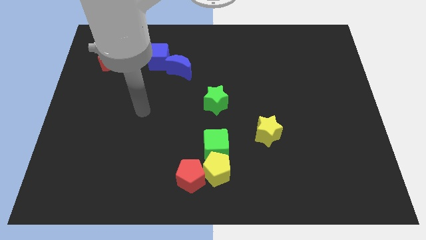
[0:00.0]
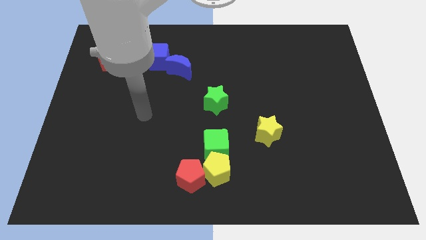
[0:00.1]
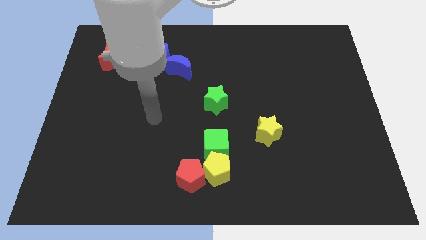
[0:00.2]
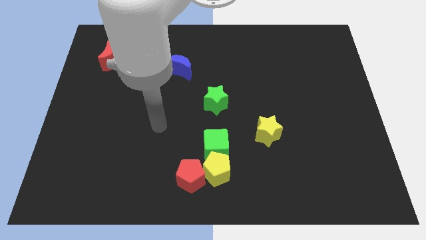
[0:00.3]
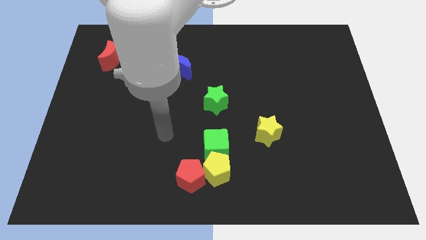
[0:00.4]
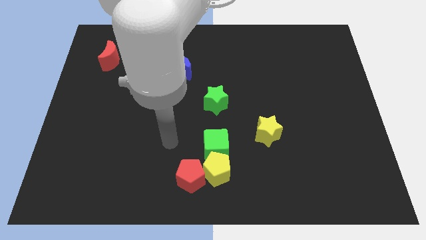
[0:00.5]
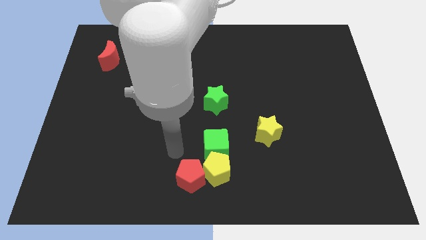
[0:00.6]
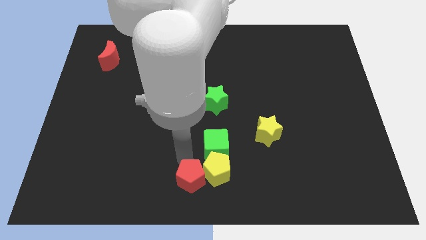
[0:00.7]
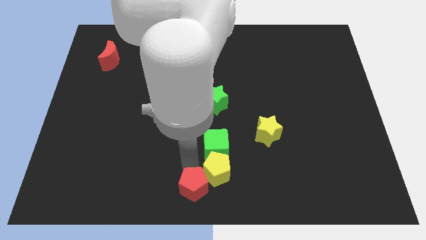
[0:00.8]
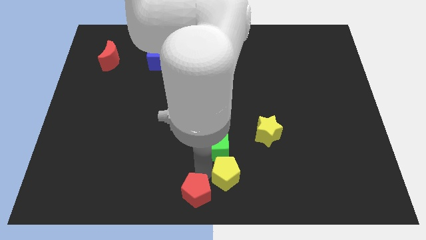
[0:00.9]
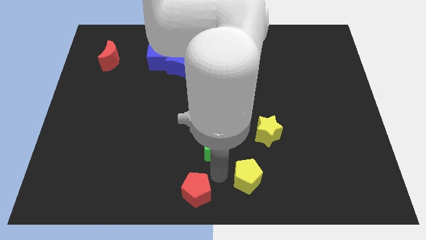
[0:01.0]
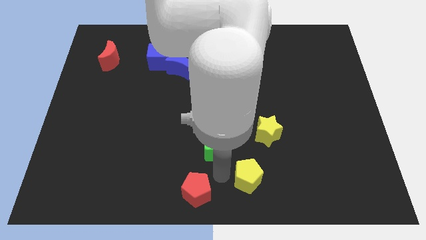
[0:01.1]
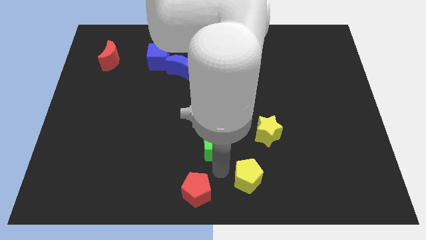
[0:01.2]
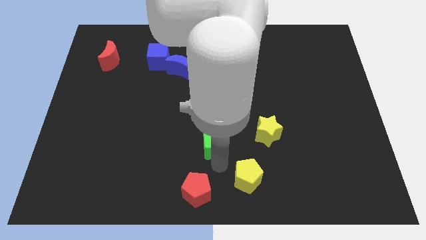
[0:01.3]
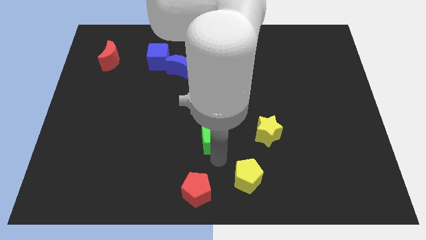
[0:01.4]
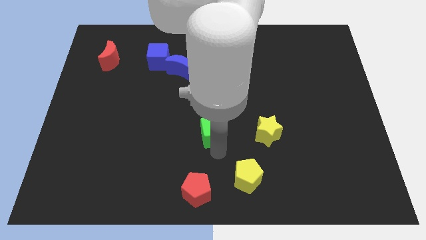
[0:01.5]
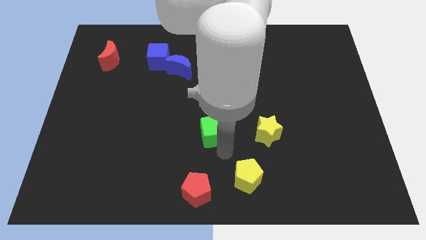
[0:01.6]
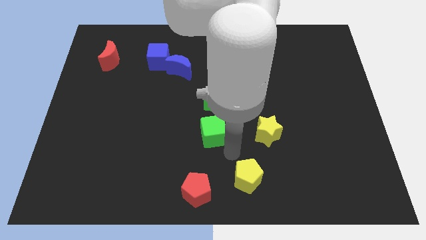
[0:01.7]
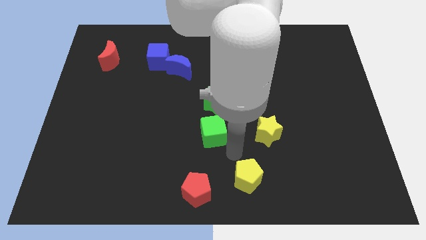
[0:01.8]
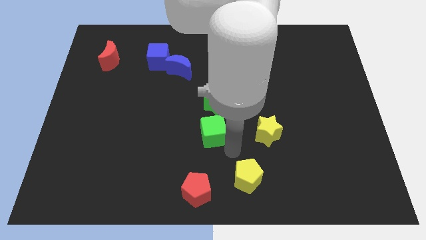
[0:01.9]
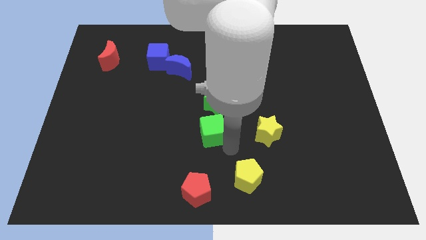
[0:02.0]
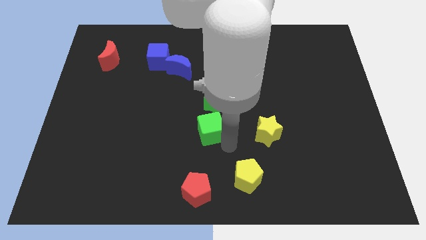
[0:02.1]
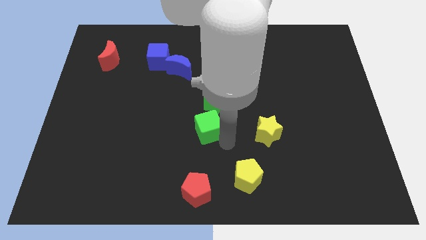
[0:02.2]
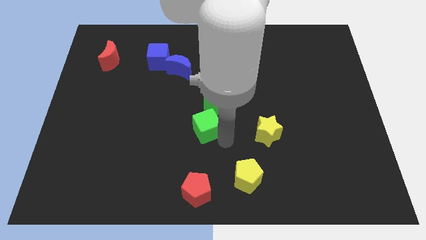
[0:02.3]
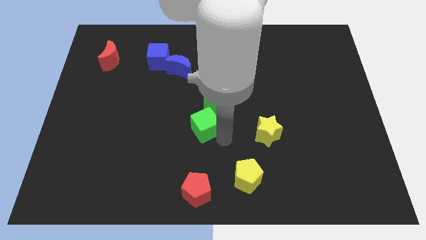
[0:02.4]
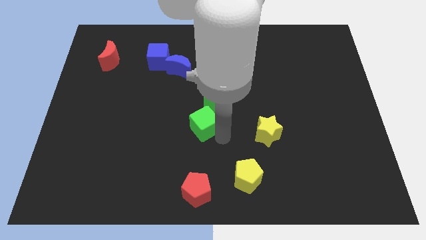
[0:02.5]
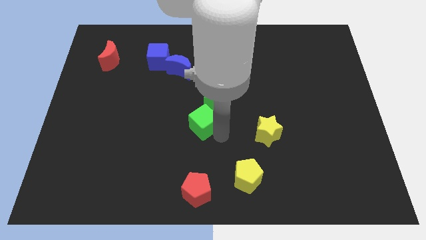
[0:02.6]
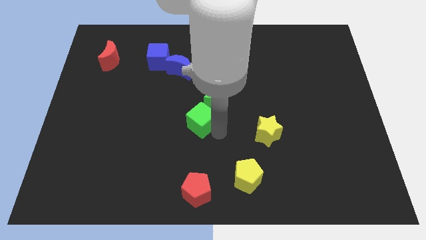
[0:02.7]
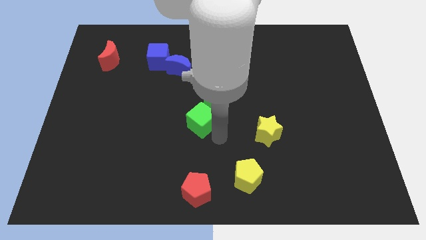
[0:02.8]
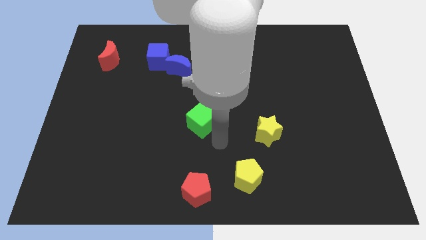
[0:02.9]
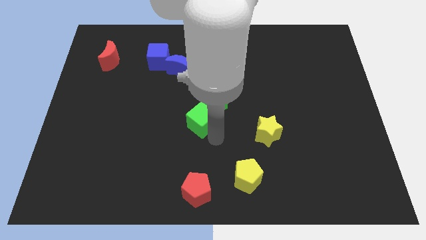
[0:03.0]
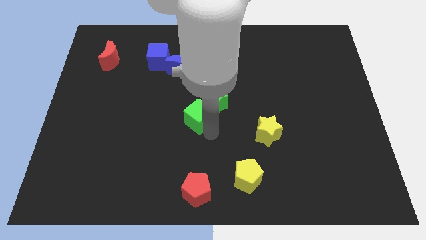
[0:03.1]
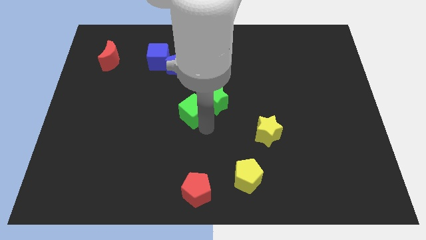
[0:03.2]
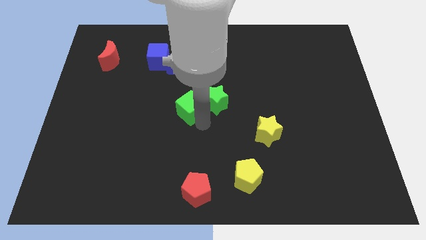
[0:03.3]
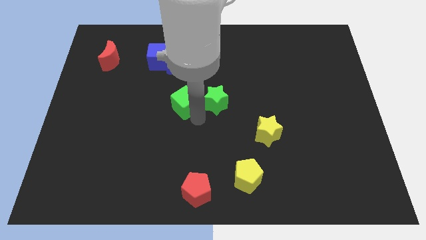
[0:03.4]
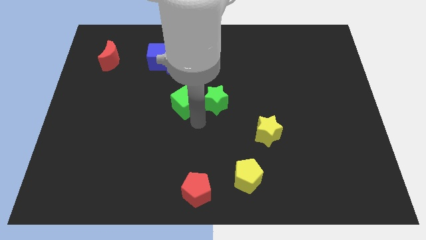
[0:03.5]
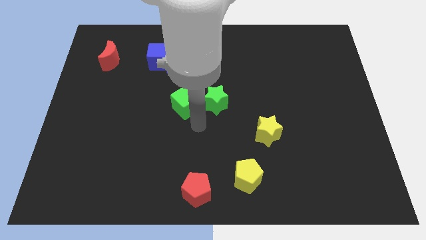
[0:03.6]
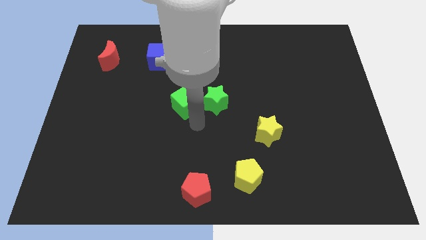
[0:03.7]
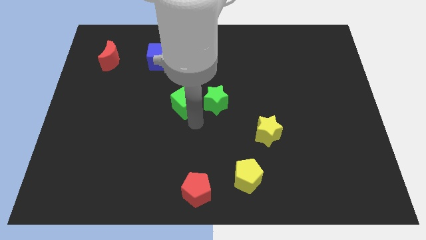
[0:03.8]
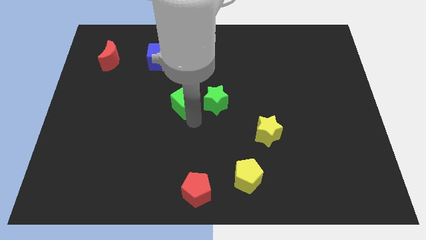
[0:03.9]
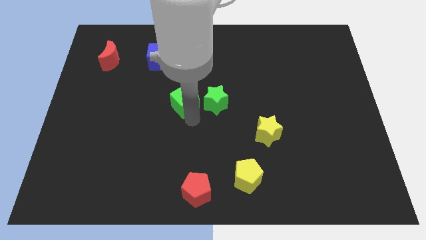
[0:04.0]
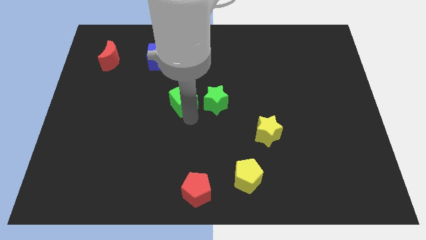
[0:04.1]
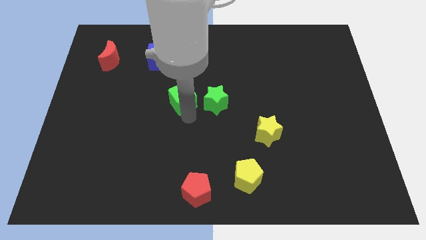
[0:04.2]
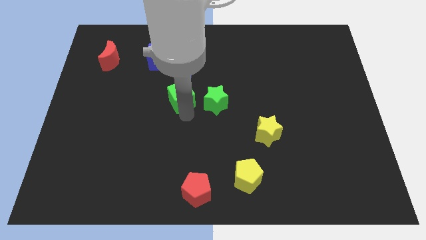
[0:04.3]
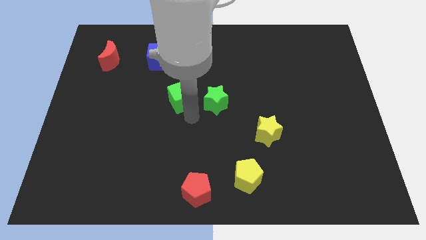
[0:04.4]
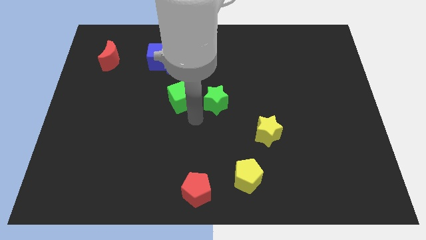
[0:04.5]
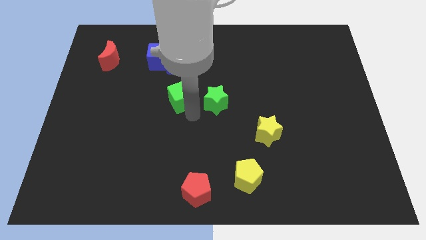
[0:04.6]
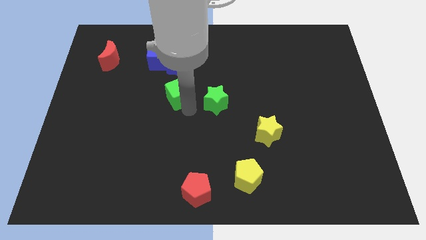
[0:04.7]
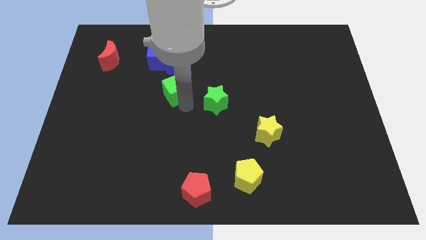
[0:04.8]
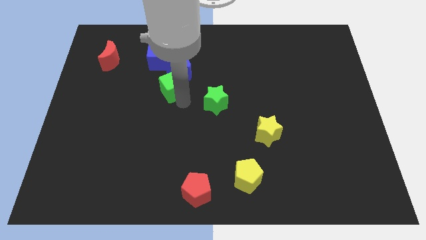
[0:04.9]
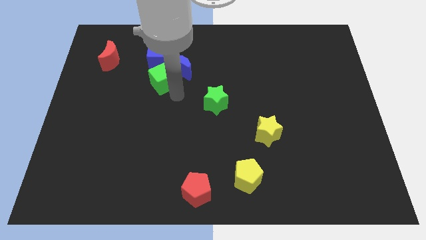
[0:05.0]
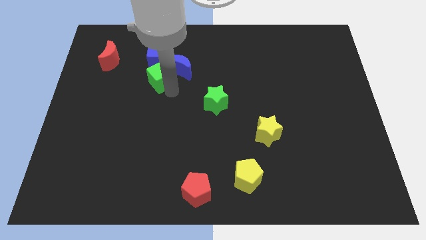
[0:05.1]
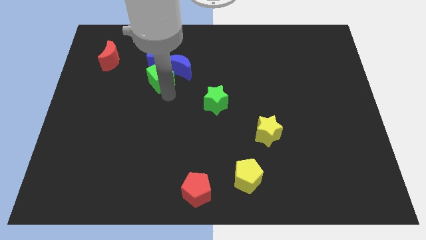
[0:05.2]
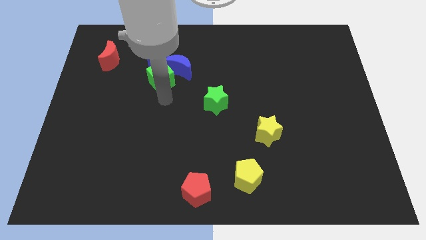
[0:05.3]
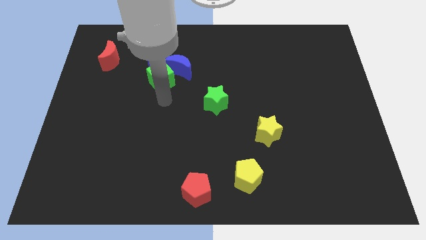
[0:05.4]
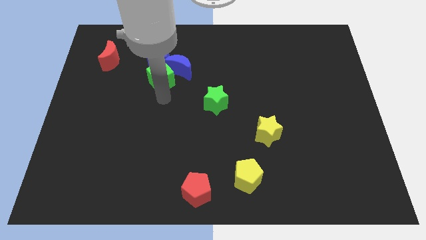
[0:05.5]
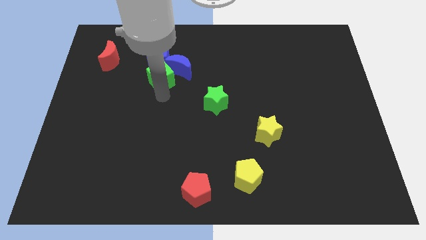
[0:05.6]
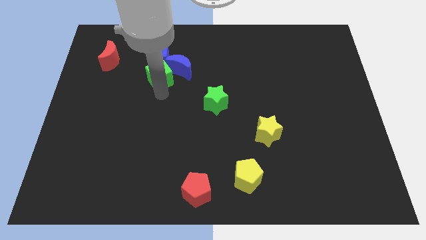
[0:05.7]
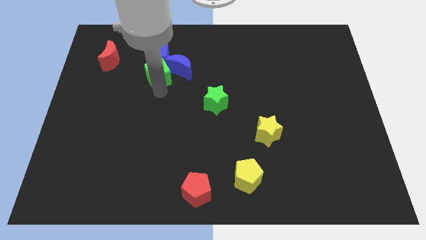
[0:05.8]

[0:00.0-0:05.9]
slide the green cube next to the blue cube

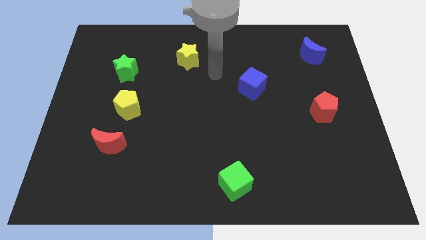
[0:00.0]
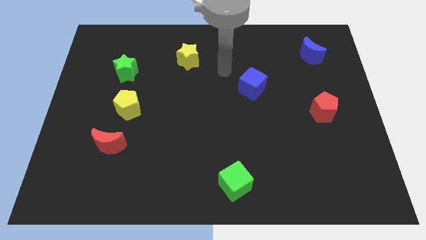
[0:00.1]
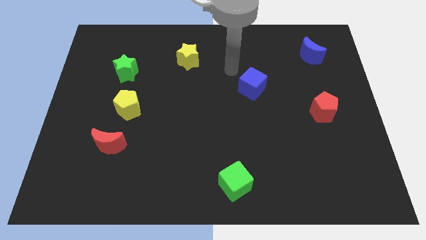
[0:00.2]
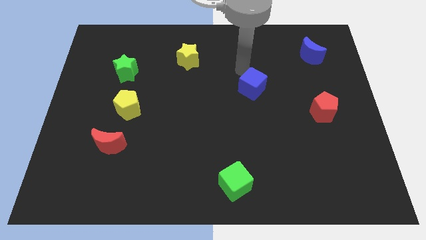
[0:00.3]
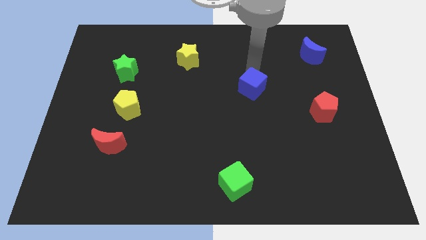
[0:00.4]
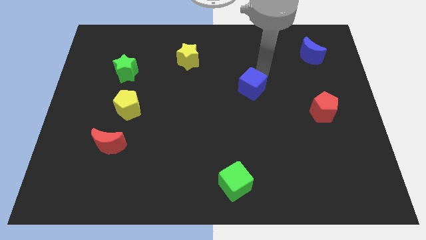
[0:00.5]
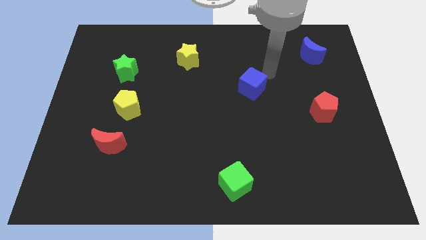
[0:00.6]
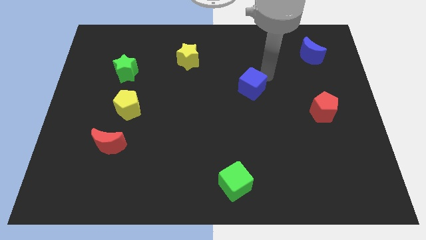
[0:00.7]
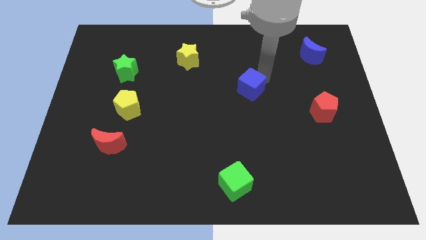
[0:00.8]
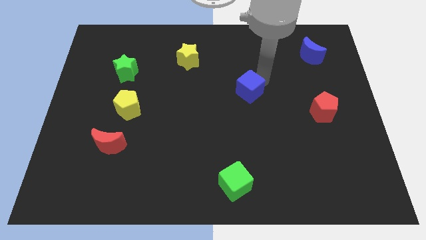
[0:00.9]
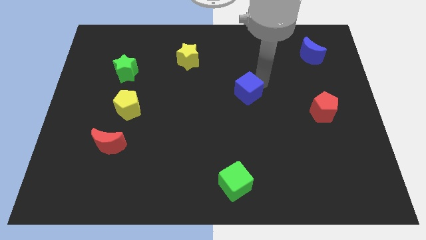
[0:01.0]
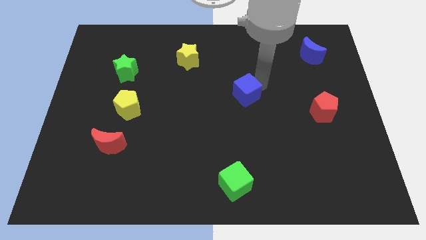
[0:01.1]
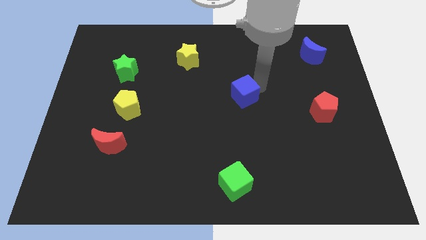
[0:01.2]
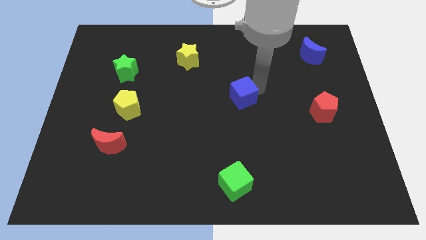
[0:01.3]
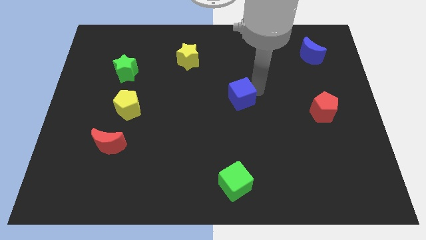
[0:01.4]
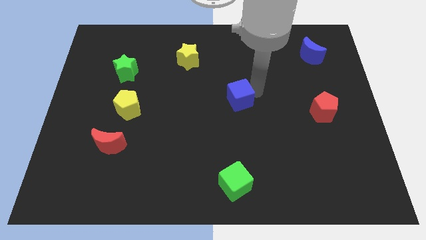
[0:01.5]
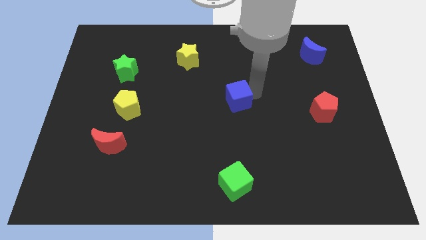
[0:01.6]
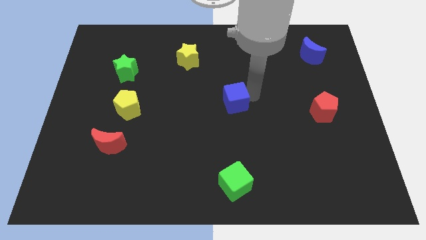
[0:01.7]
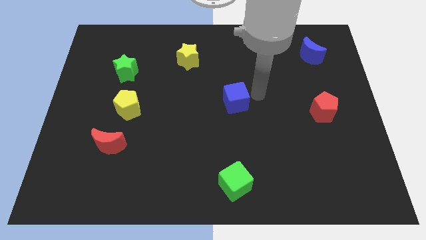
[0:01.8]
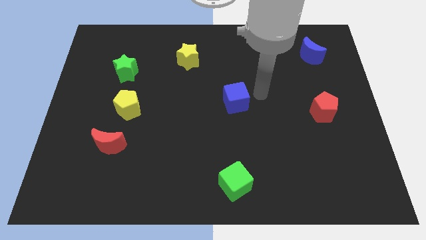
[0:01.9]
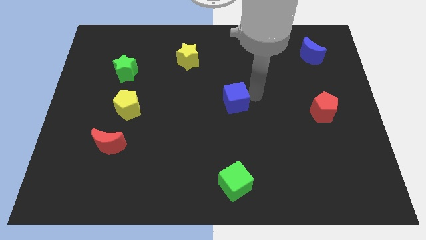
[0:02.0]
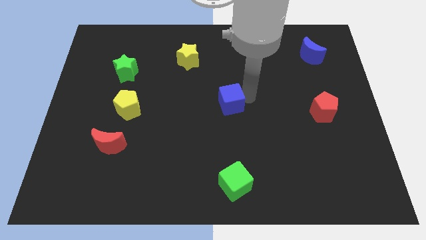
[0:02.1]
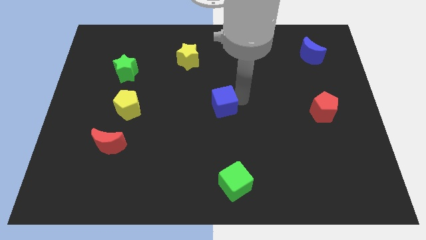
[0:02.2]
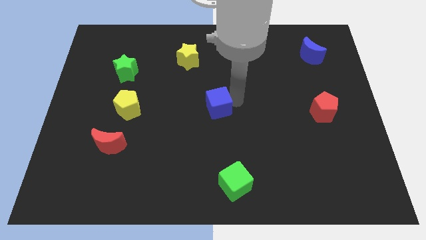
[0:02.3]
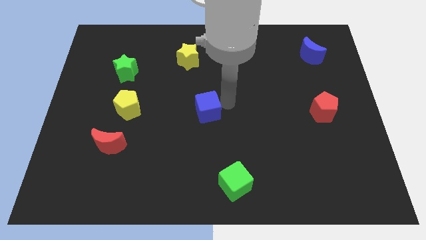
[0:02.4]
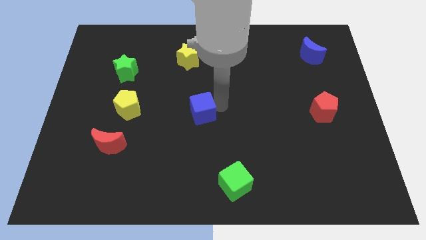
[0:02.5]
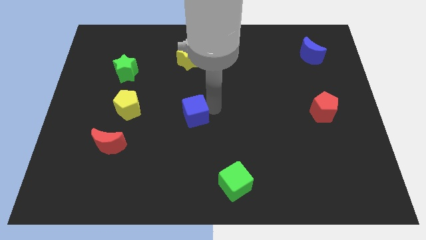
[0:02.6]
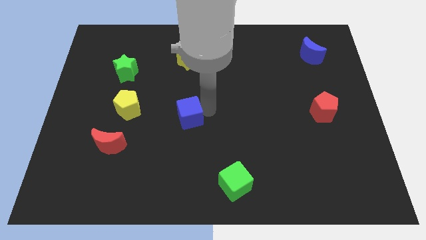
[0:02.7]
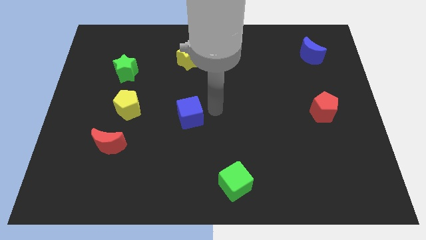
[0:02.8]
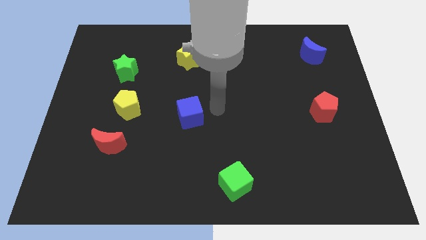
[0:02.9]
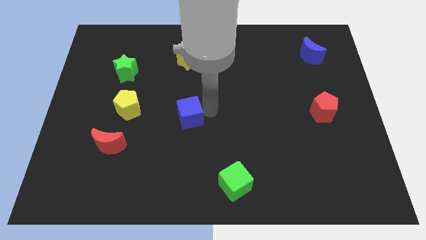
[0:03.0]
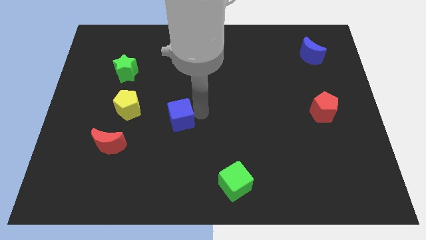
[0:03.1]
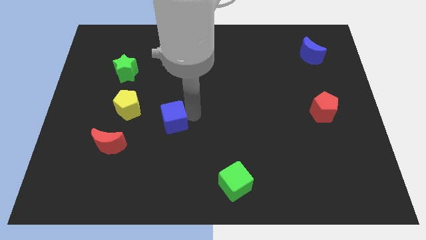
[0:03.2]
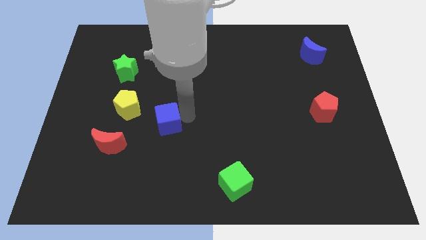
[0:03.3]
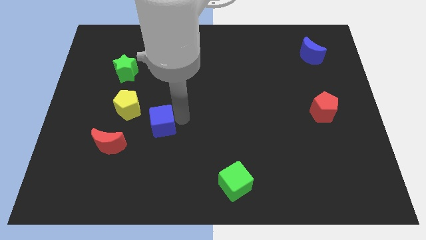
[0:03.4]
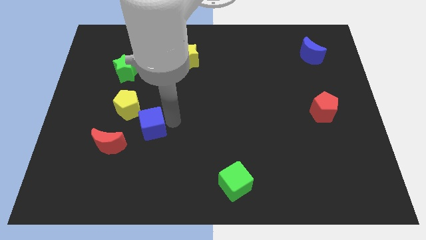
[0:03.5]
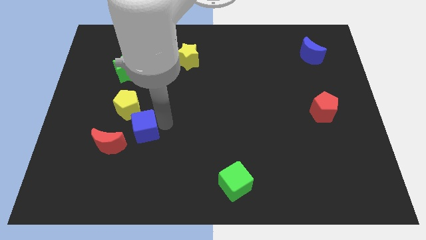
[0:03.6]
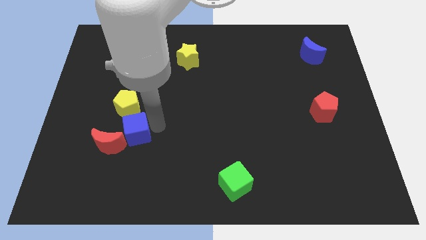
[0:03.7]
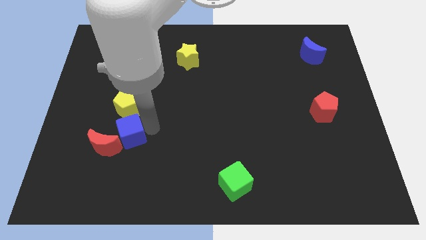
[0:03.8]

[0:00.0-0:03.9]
move the blue cube to the red moon
